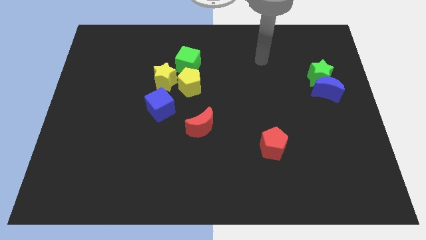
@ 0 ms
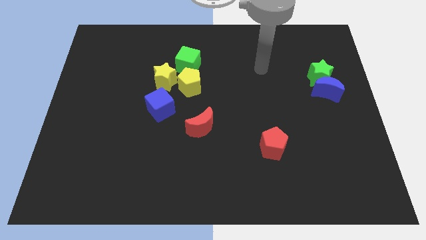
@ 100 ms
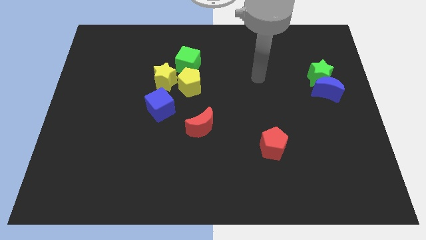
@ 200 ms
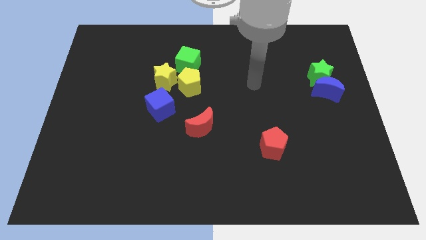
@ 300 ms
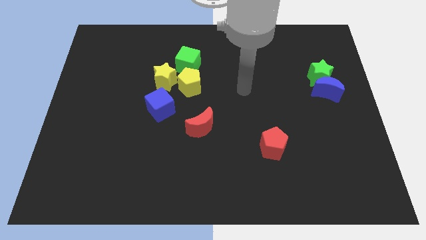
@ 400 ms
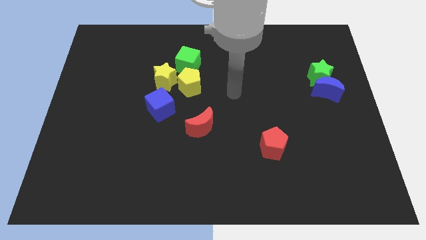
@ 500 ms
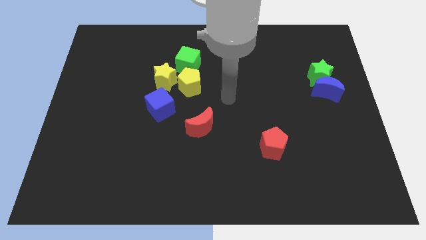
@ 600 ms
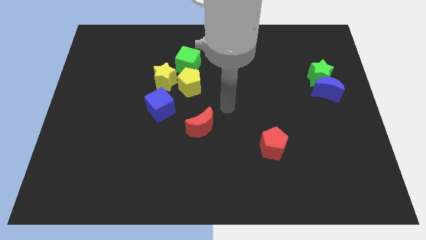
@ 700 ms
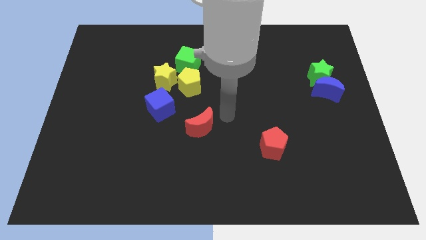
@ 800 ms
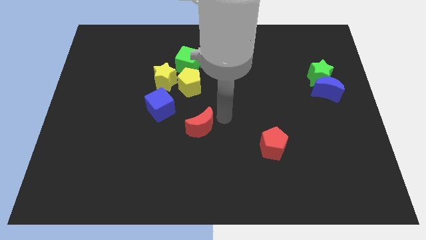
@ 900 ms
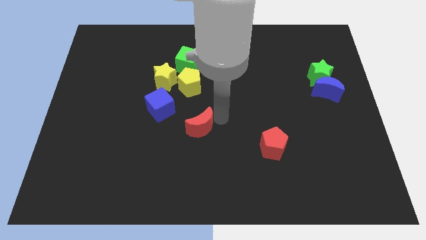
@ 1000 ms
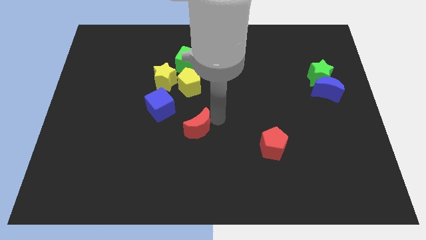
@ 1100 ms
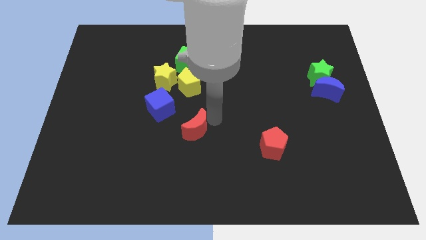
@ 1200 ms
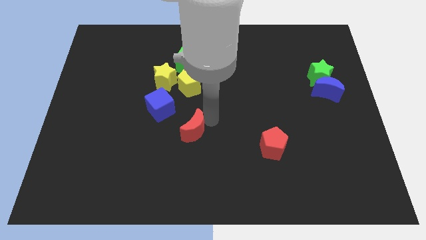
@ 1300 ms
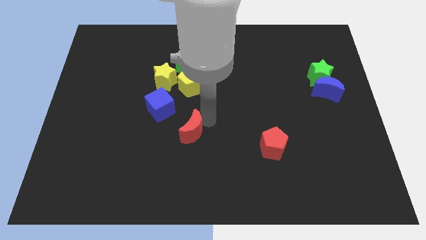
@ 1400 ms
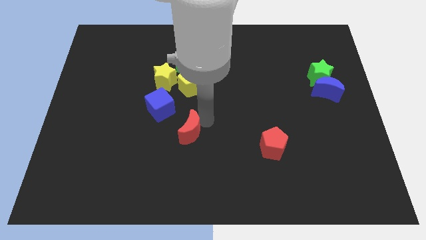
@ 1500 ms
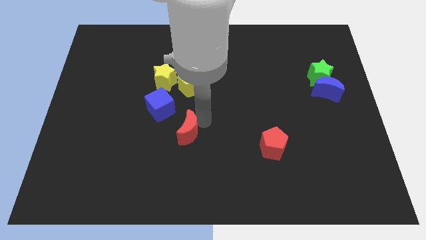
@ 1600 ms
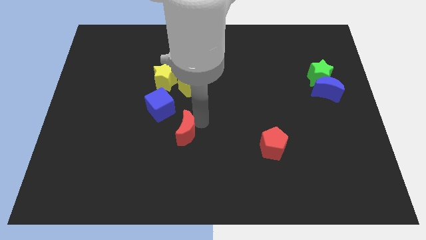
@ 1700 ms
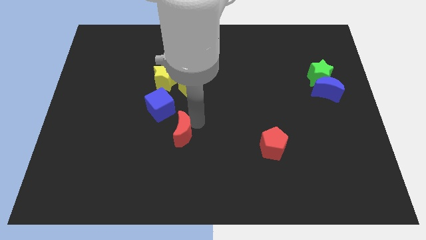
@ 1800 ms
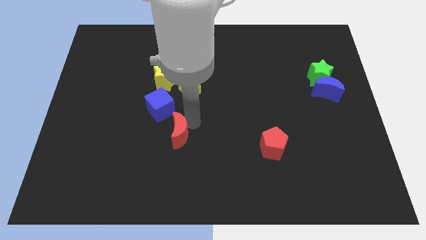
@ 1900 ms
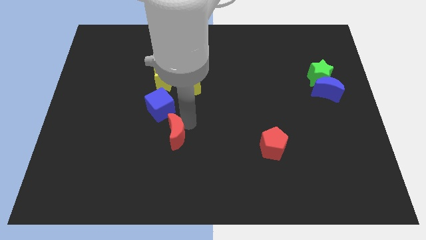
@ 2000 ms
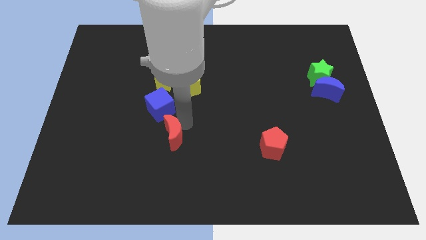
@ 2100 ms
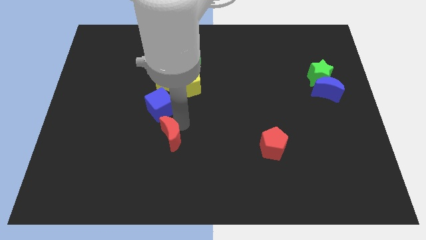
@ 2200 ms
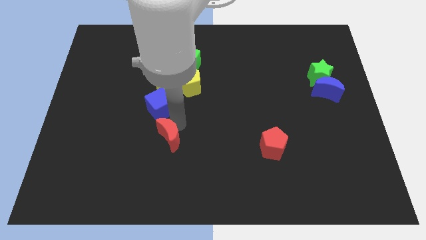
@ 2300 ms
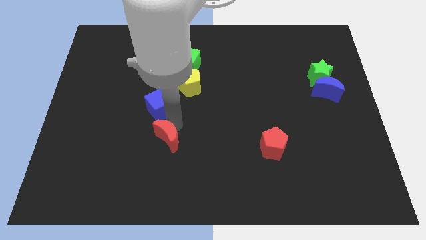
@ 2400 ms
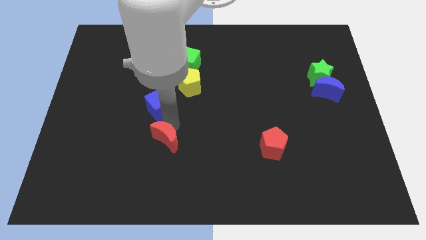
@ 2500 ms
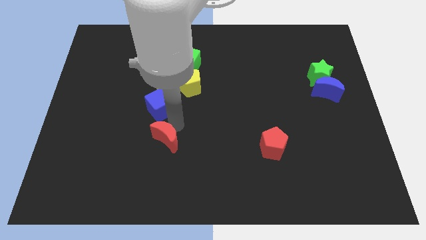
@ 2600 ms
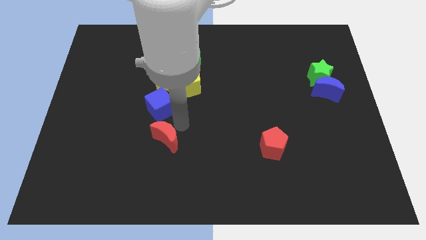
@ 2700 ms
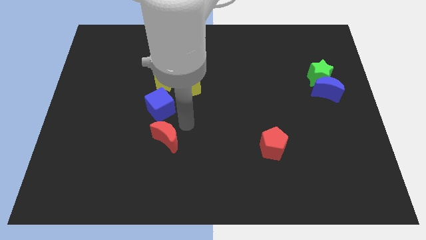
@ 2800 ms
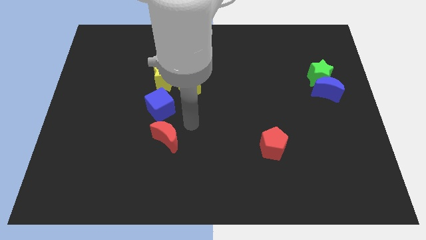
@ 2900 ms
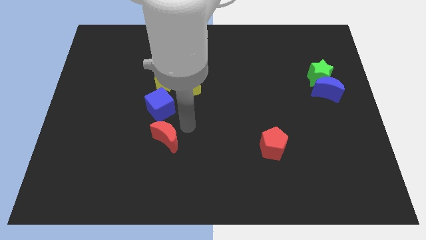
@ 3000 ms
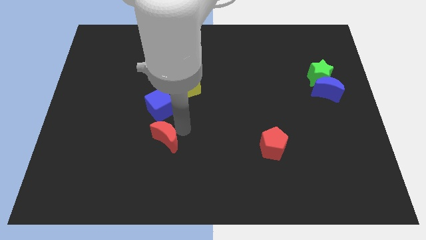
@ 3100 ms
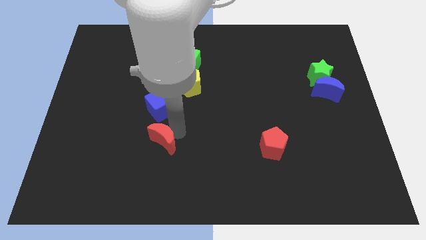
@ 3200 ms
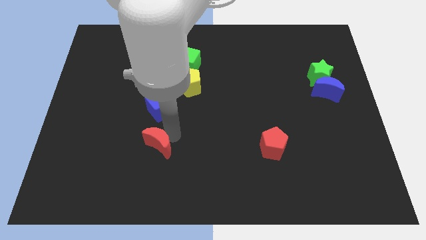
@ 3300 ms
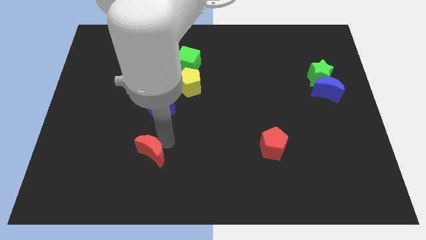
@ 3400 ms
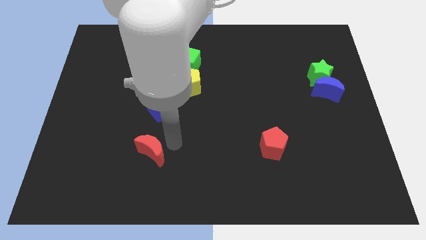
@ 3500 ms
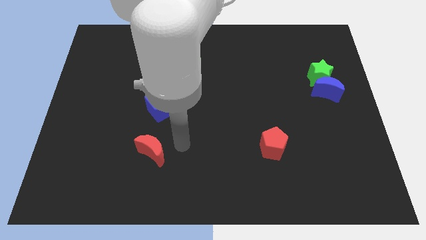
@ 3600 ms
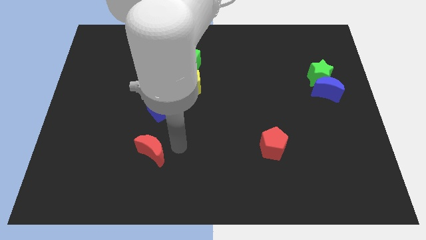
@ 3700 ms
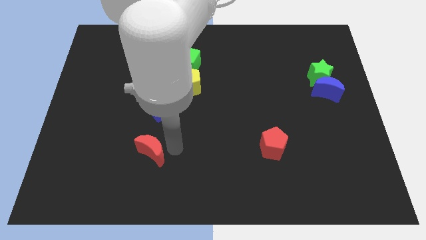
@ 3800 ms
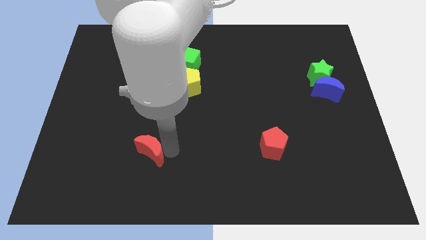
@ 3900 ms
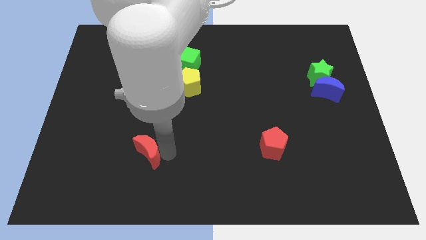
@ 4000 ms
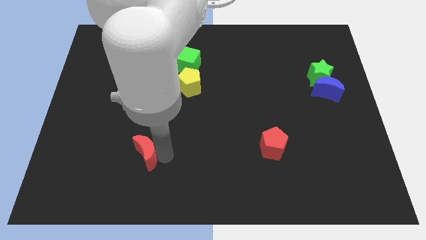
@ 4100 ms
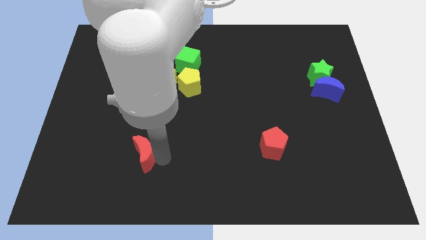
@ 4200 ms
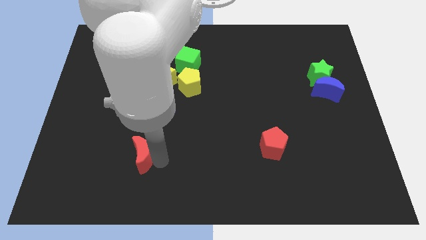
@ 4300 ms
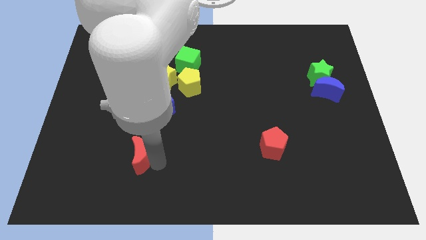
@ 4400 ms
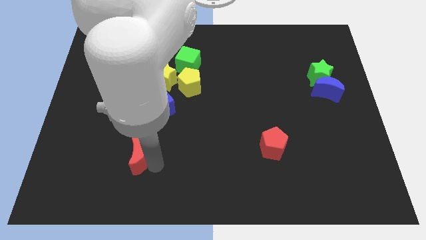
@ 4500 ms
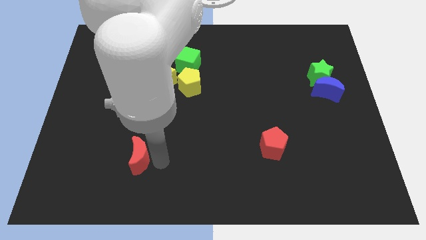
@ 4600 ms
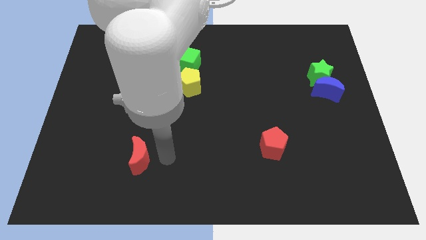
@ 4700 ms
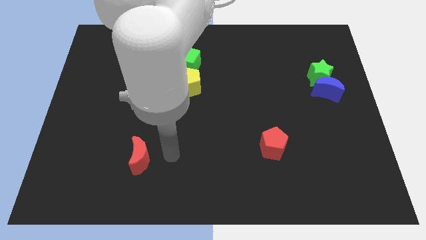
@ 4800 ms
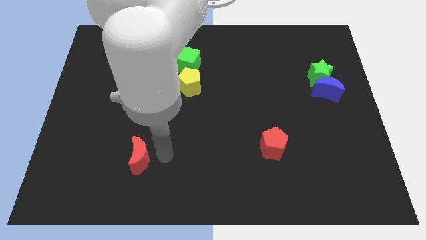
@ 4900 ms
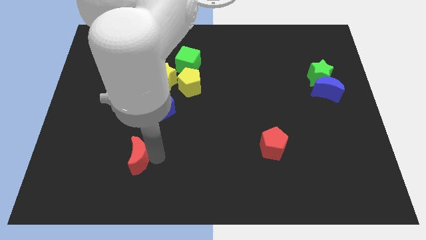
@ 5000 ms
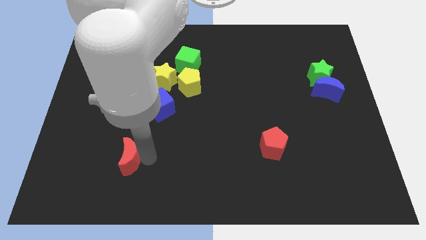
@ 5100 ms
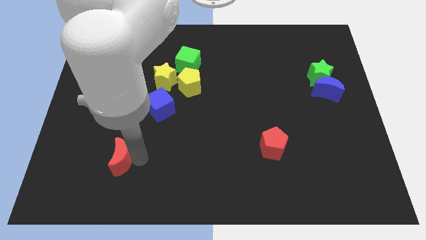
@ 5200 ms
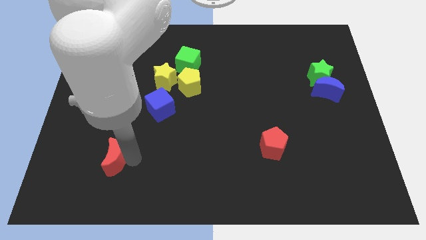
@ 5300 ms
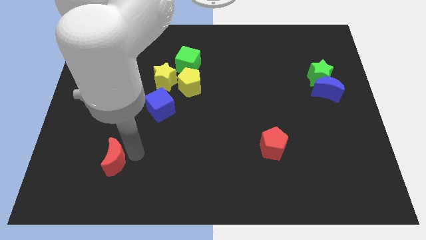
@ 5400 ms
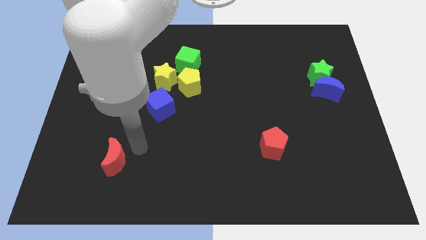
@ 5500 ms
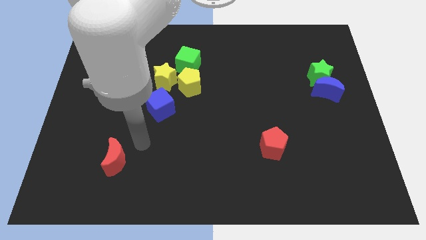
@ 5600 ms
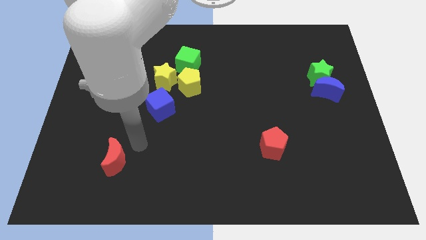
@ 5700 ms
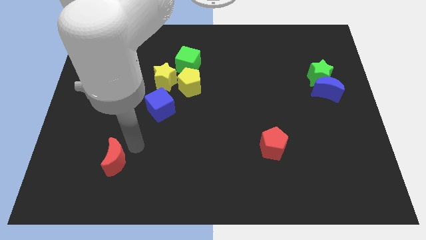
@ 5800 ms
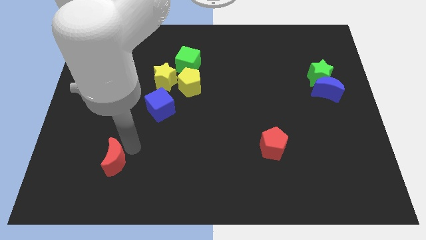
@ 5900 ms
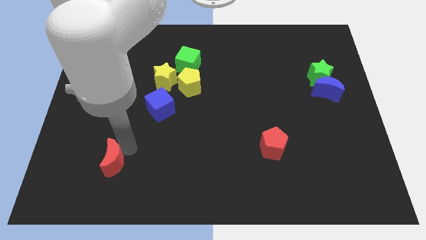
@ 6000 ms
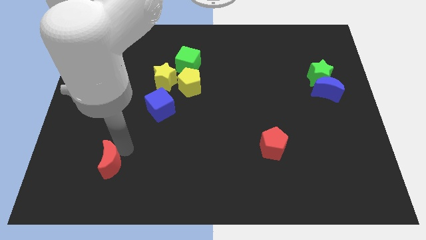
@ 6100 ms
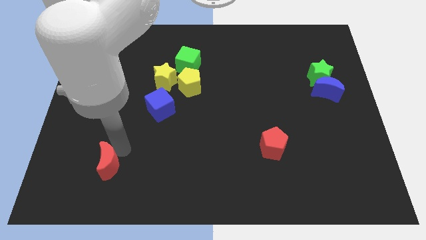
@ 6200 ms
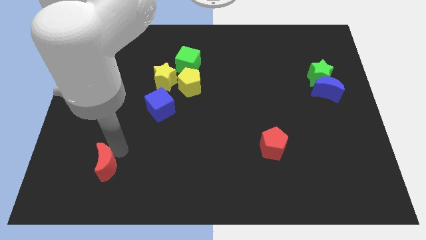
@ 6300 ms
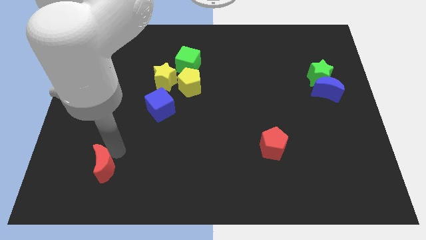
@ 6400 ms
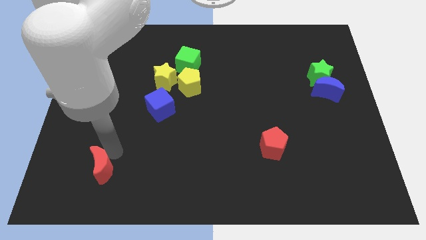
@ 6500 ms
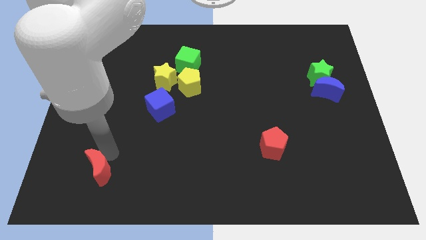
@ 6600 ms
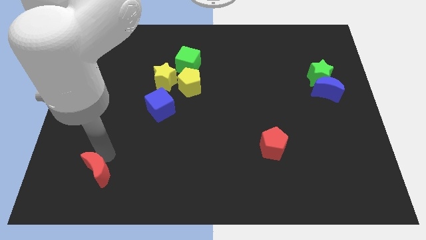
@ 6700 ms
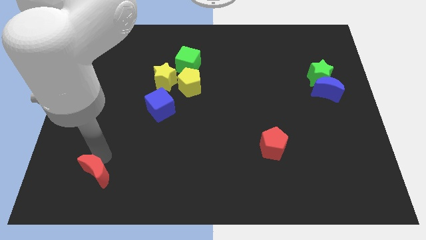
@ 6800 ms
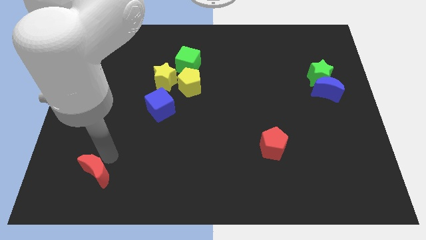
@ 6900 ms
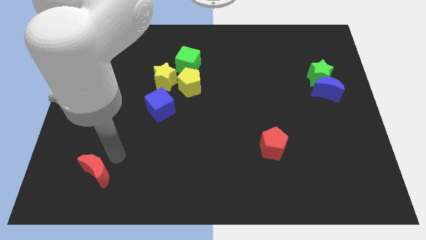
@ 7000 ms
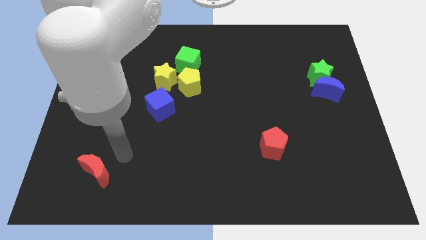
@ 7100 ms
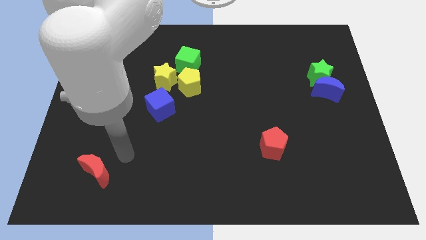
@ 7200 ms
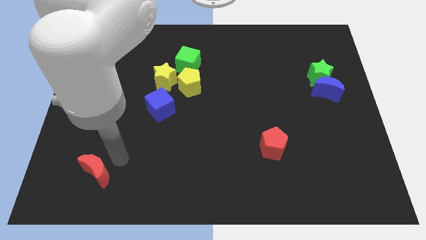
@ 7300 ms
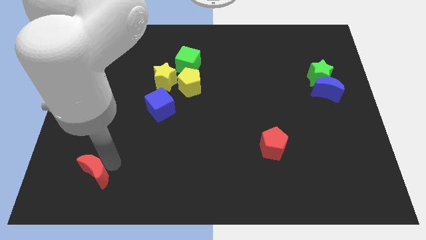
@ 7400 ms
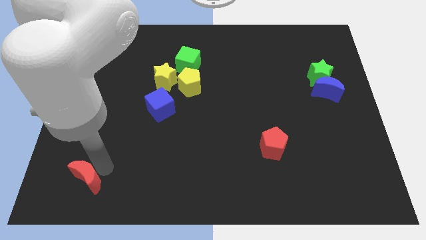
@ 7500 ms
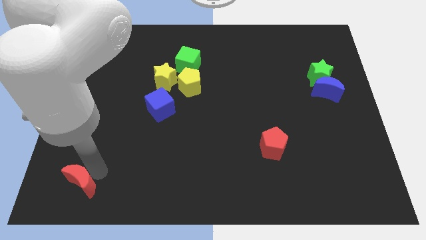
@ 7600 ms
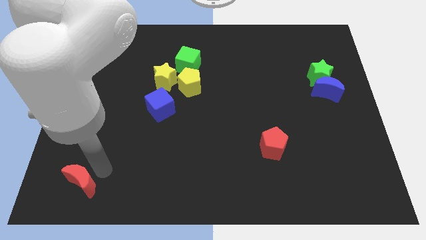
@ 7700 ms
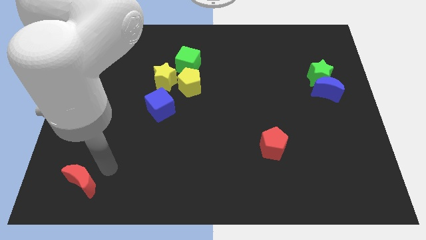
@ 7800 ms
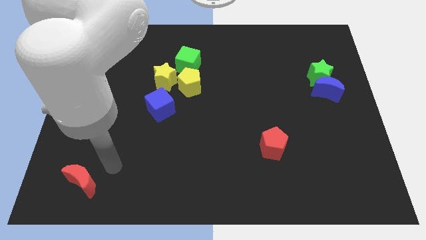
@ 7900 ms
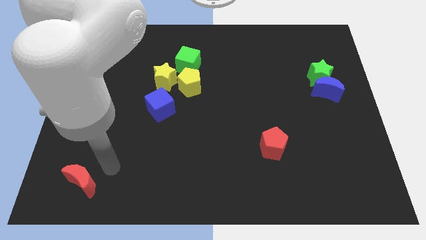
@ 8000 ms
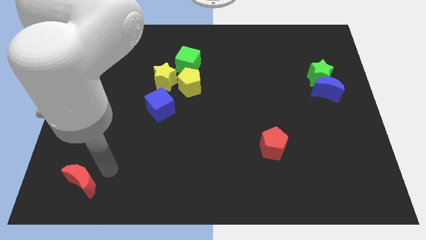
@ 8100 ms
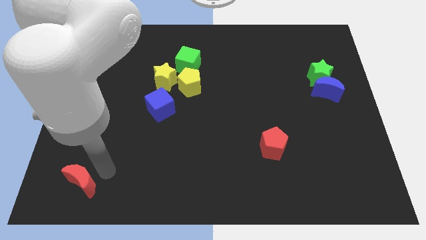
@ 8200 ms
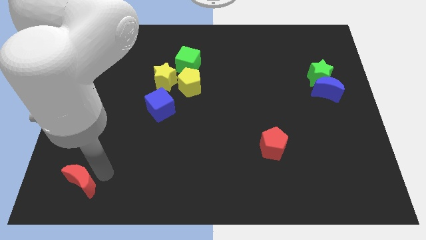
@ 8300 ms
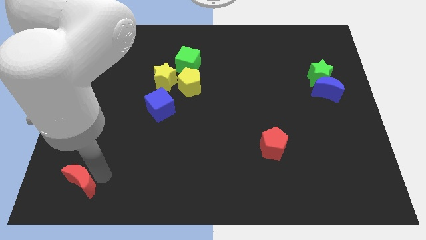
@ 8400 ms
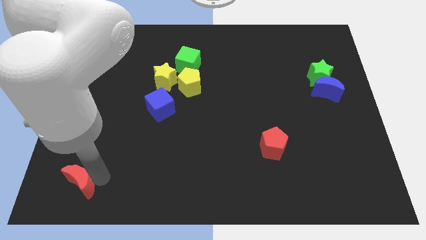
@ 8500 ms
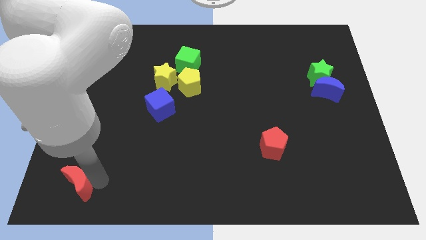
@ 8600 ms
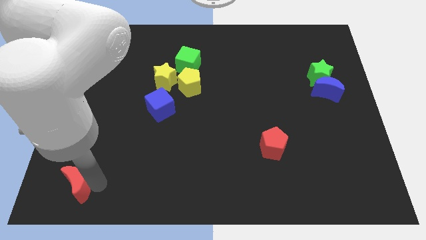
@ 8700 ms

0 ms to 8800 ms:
put the red moon to the bottom left of the board
